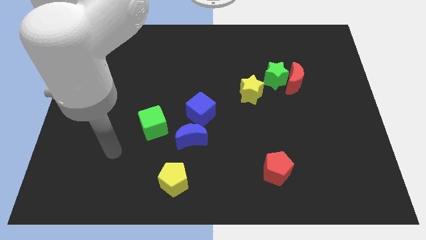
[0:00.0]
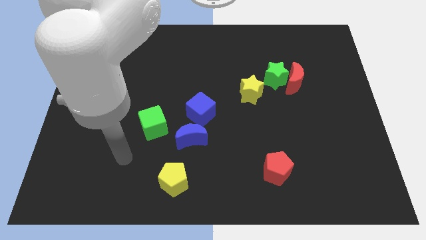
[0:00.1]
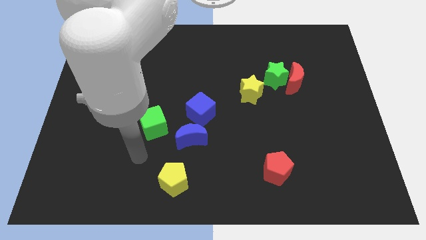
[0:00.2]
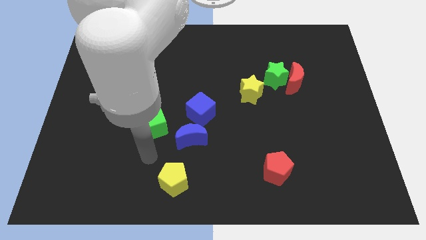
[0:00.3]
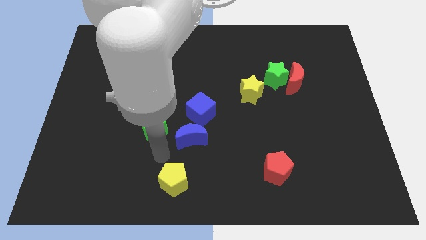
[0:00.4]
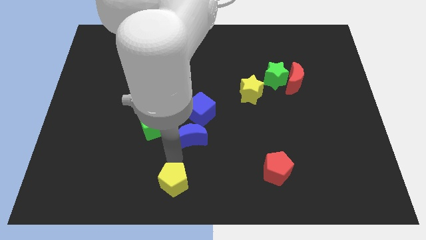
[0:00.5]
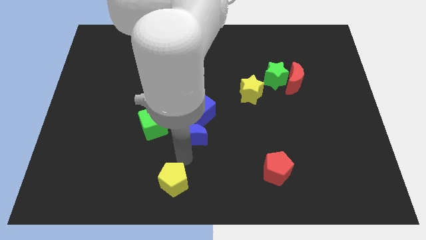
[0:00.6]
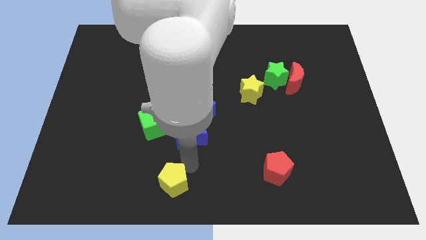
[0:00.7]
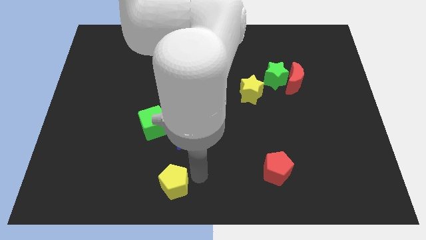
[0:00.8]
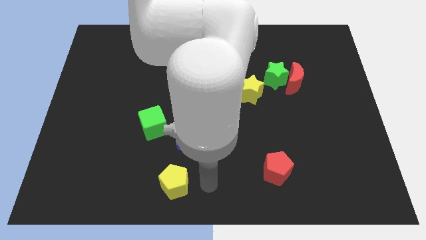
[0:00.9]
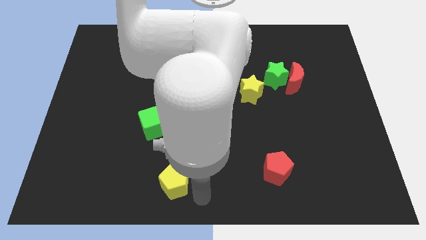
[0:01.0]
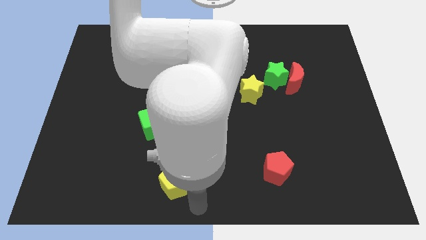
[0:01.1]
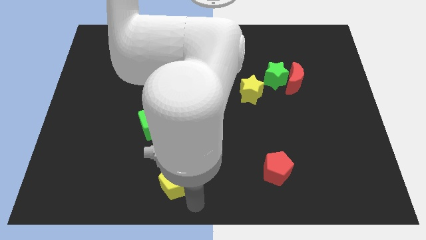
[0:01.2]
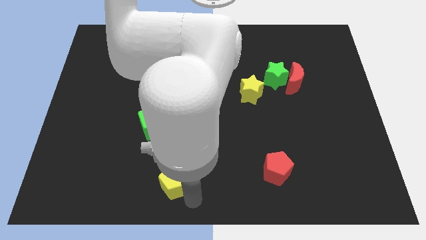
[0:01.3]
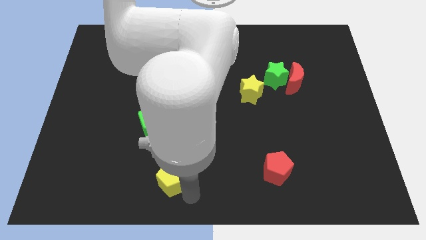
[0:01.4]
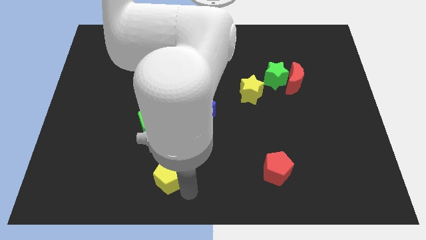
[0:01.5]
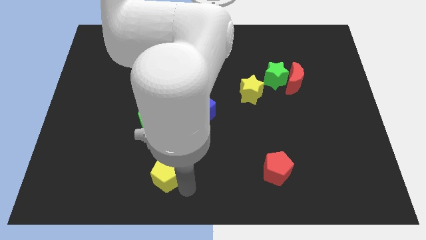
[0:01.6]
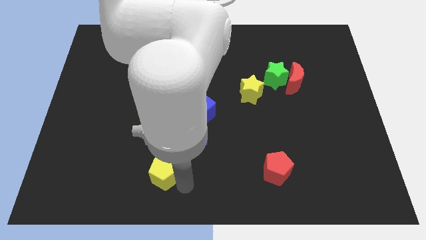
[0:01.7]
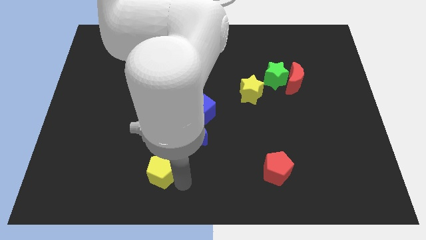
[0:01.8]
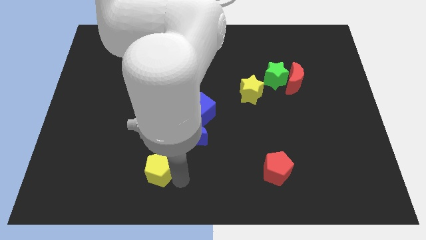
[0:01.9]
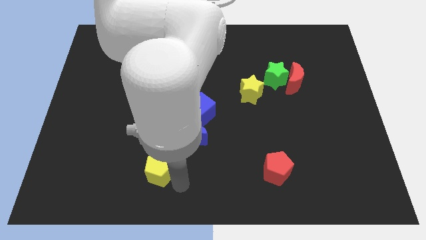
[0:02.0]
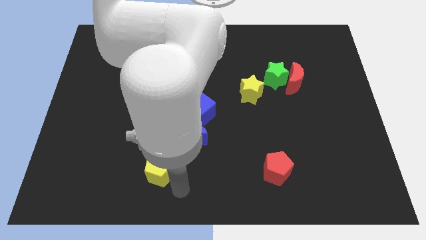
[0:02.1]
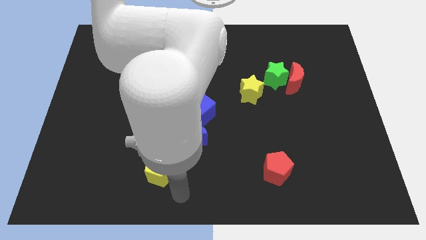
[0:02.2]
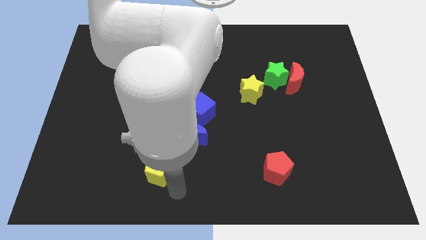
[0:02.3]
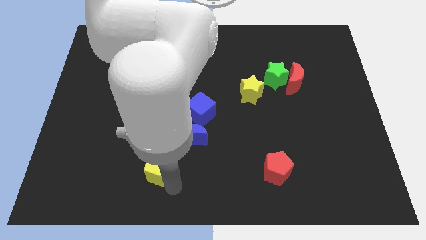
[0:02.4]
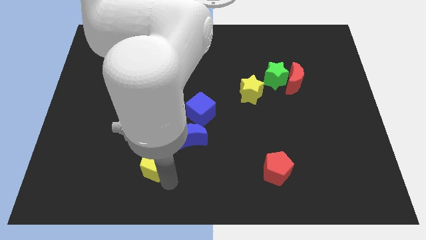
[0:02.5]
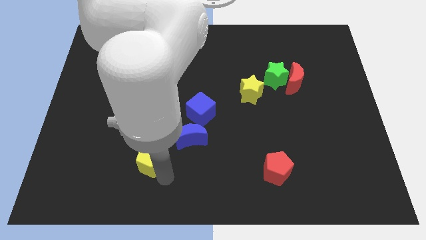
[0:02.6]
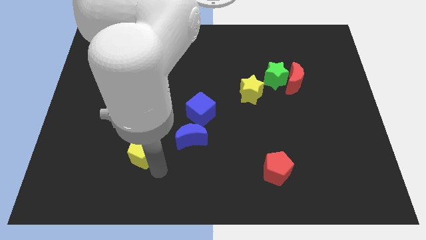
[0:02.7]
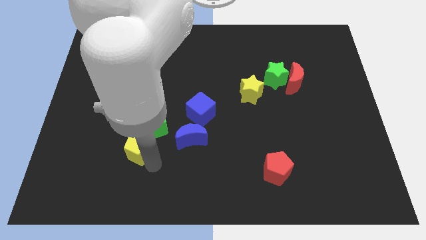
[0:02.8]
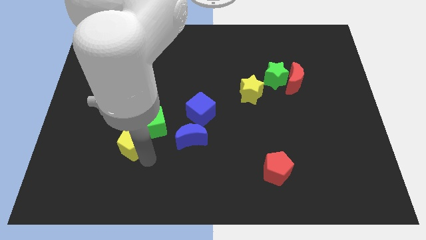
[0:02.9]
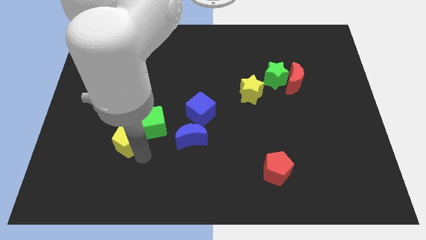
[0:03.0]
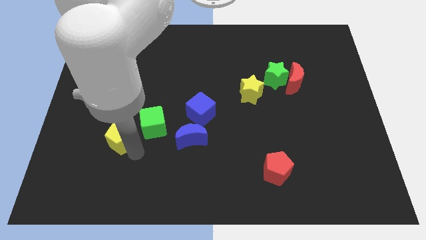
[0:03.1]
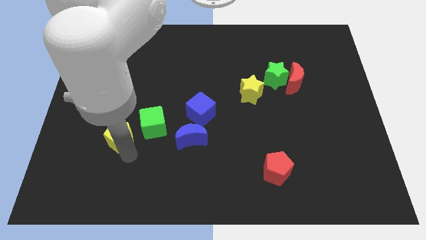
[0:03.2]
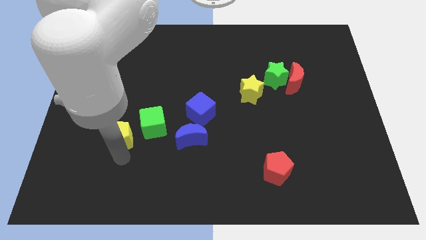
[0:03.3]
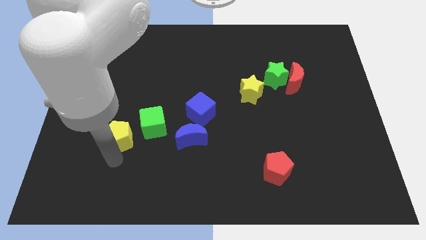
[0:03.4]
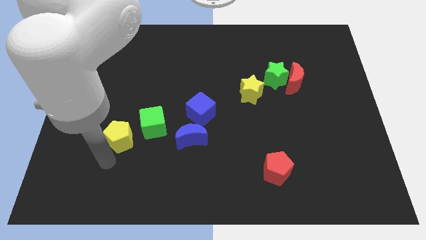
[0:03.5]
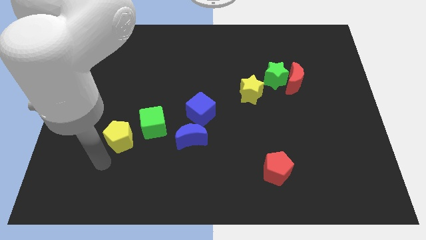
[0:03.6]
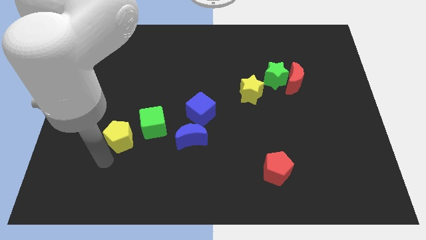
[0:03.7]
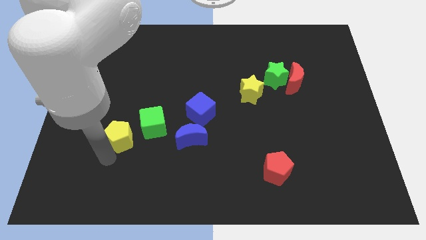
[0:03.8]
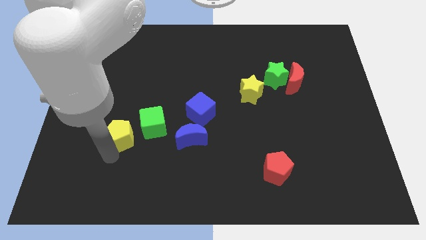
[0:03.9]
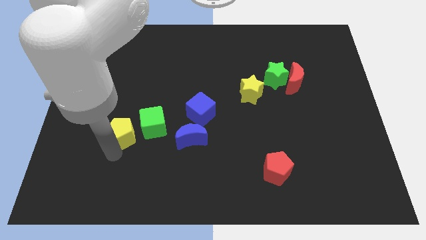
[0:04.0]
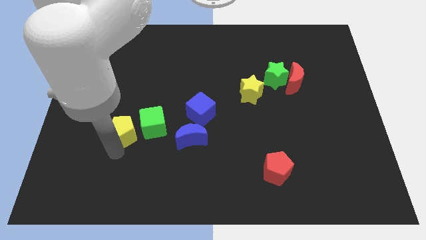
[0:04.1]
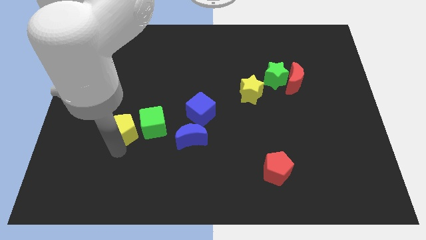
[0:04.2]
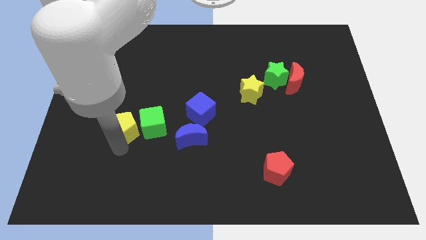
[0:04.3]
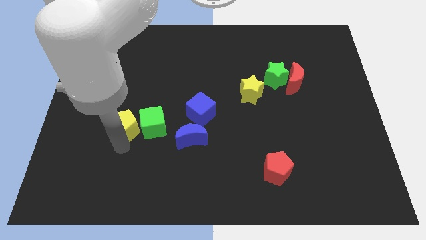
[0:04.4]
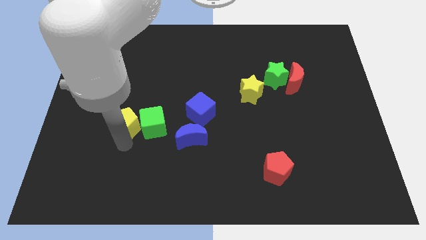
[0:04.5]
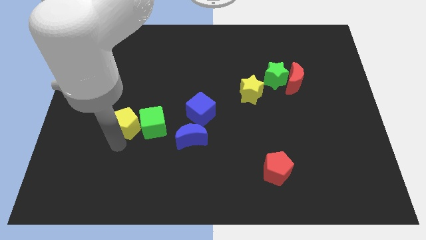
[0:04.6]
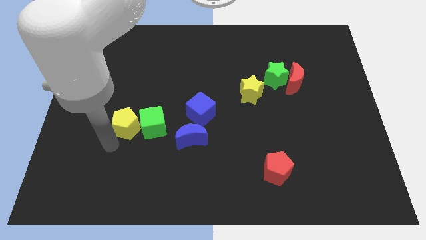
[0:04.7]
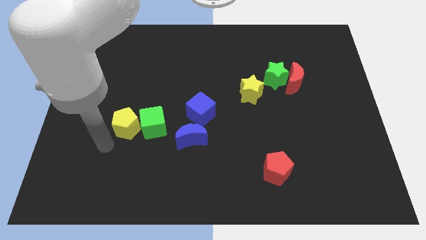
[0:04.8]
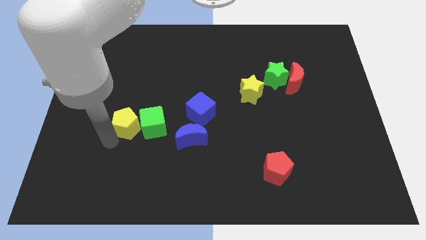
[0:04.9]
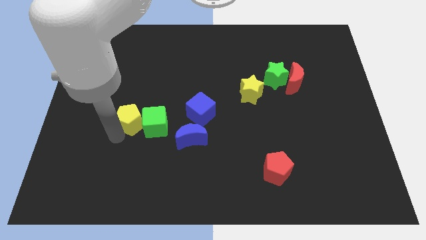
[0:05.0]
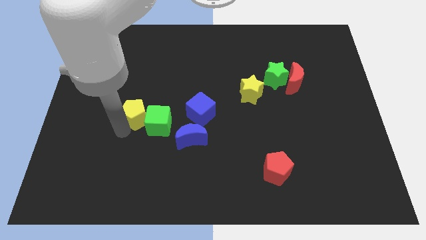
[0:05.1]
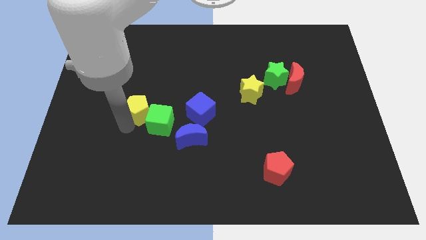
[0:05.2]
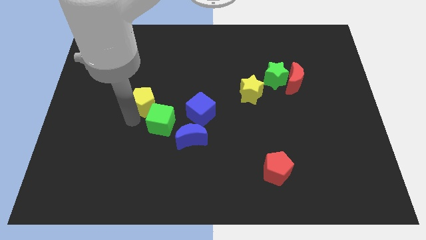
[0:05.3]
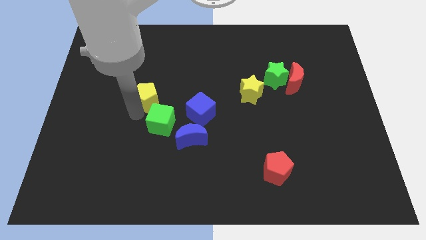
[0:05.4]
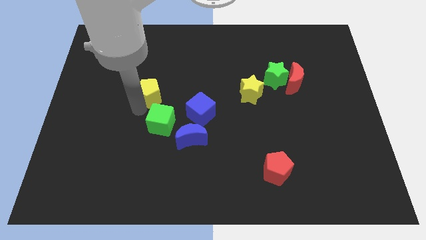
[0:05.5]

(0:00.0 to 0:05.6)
slide the yellow pentagon up

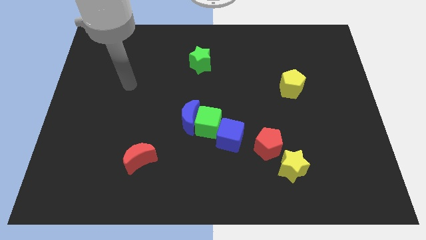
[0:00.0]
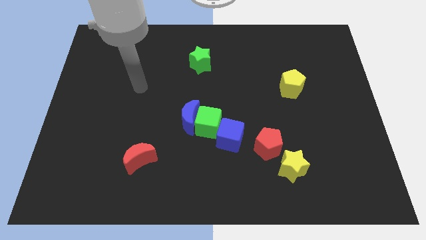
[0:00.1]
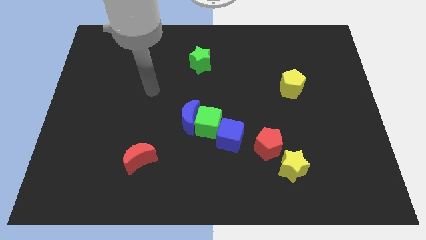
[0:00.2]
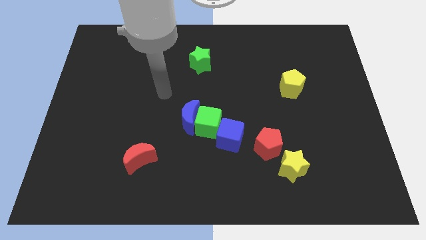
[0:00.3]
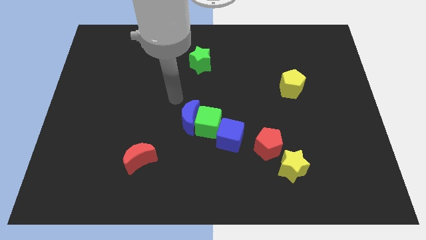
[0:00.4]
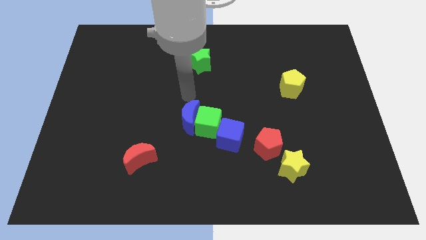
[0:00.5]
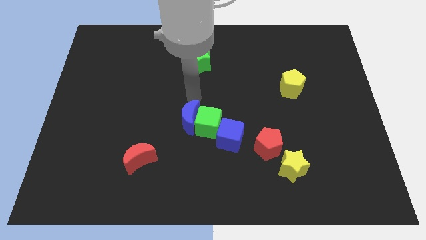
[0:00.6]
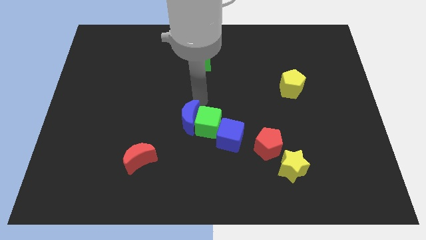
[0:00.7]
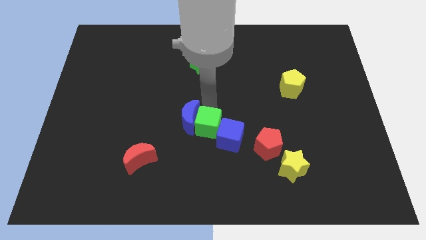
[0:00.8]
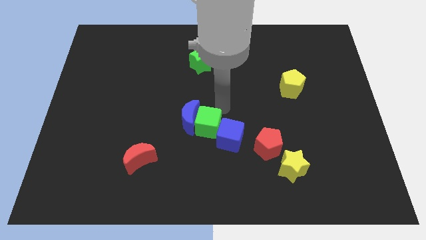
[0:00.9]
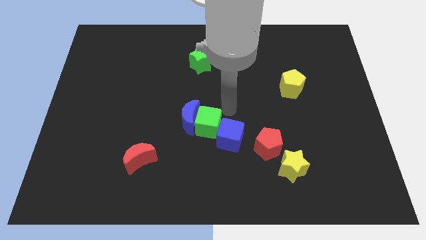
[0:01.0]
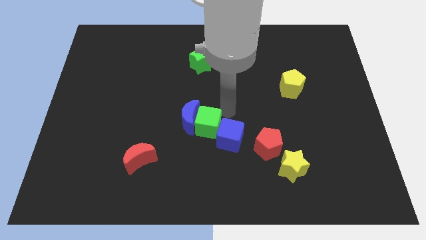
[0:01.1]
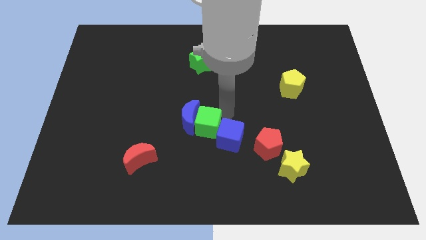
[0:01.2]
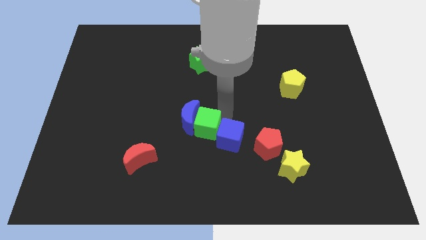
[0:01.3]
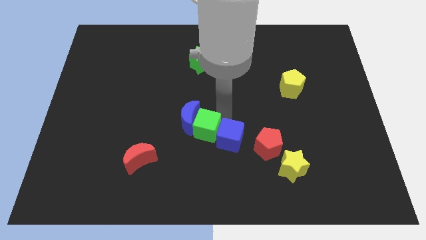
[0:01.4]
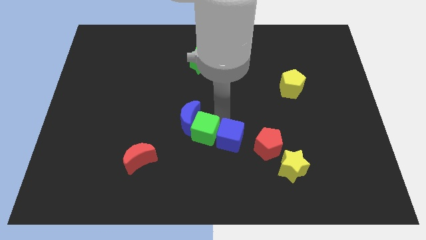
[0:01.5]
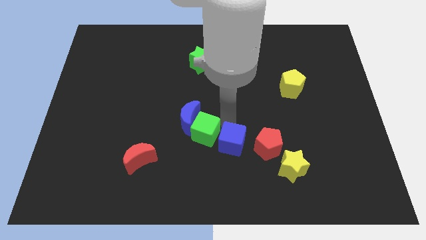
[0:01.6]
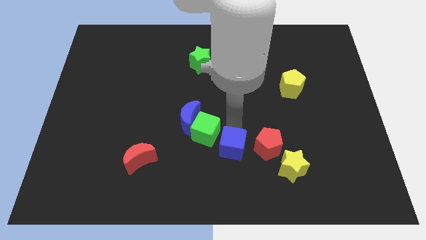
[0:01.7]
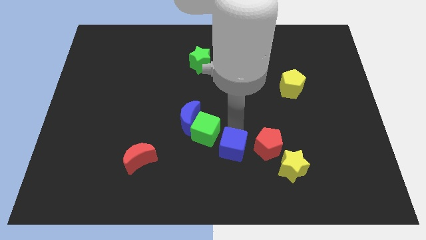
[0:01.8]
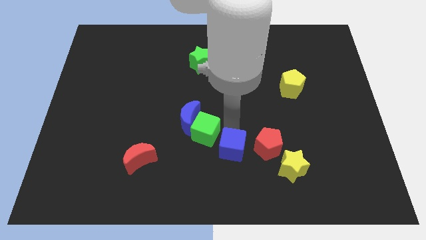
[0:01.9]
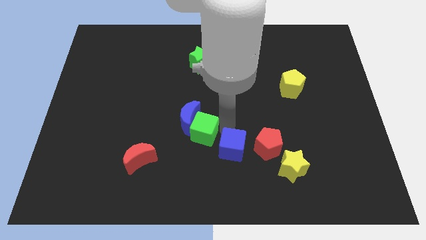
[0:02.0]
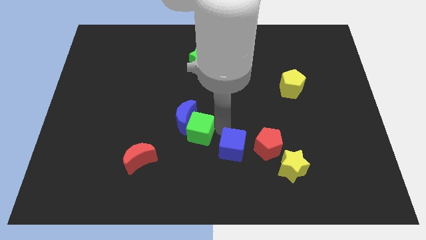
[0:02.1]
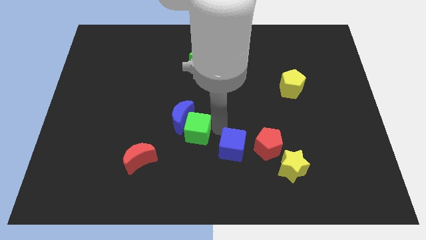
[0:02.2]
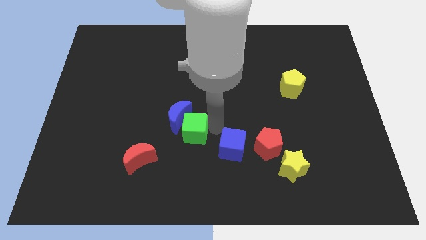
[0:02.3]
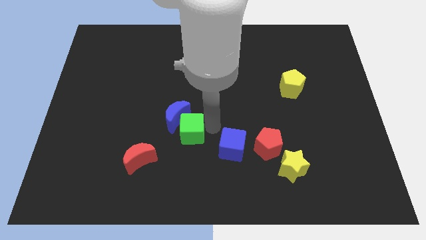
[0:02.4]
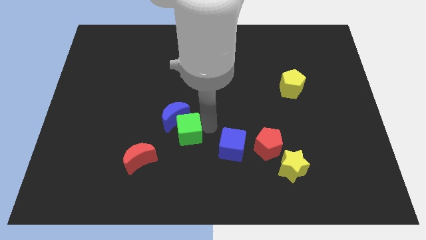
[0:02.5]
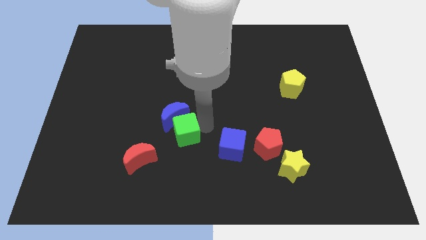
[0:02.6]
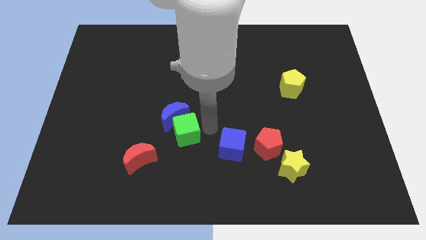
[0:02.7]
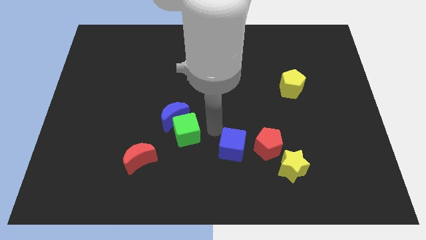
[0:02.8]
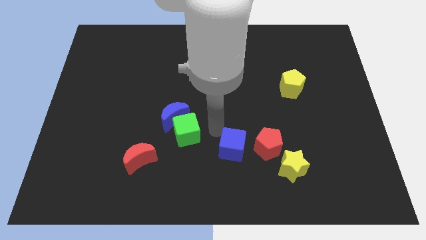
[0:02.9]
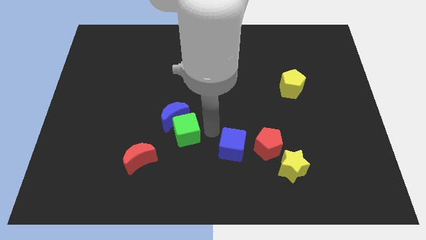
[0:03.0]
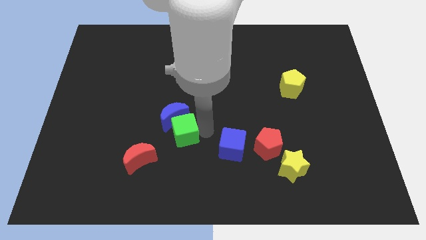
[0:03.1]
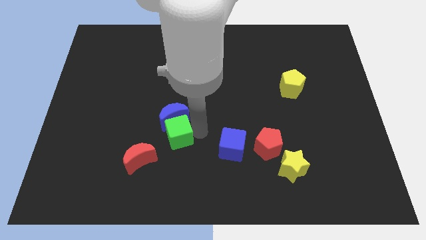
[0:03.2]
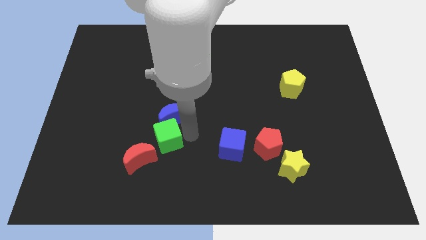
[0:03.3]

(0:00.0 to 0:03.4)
slide the green cube left somewhat
